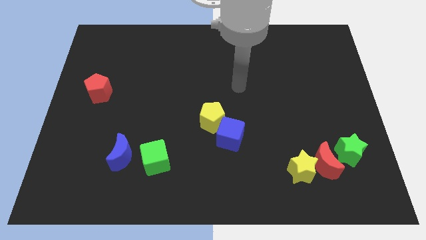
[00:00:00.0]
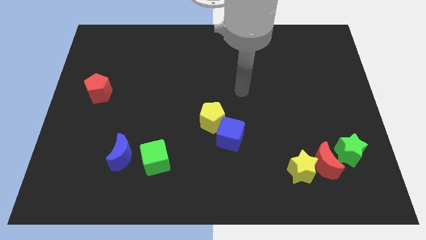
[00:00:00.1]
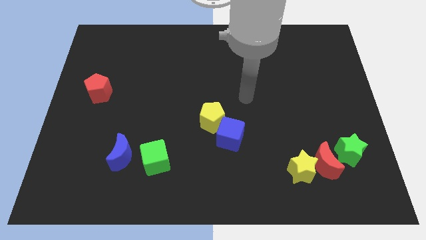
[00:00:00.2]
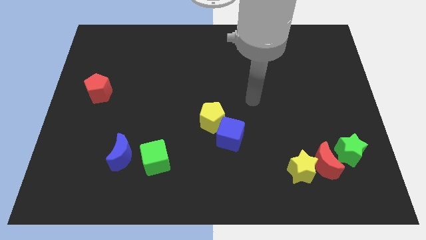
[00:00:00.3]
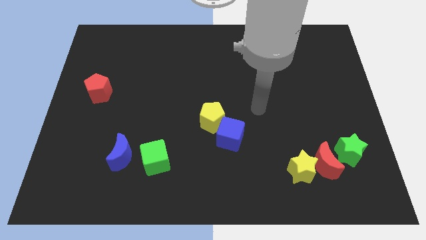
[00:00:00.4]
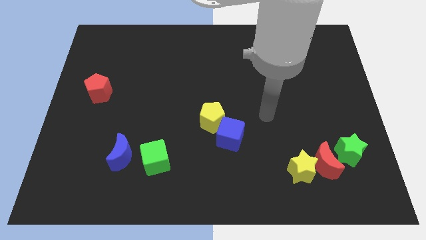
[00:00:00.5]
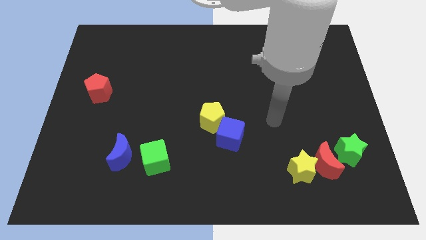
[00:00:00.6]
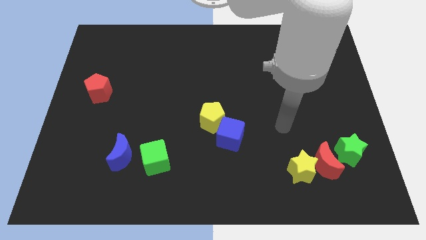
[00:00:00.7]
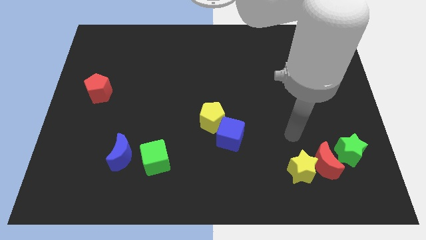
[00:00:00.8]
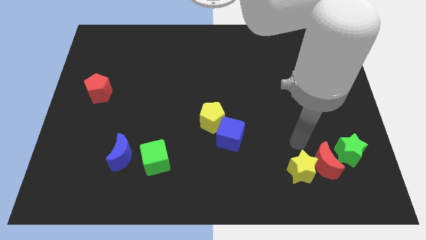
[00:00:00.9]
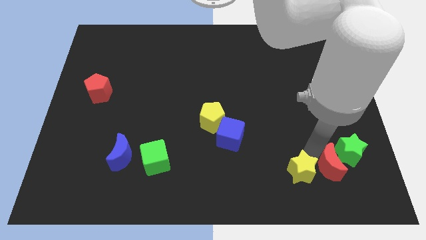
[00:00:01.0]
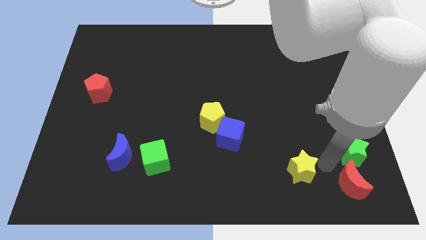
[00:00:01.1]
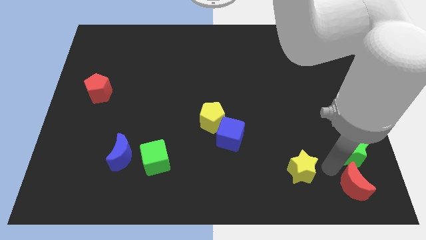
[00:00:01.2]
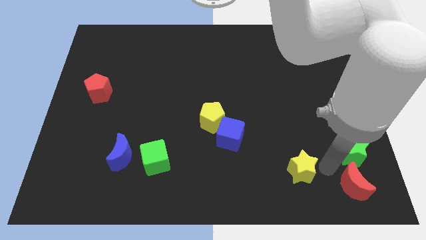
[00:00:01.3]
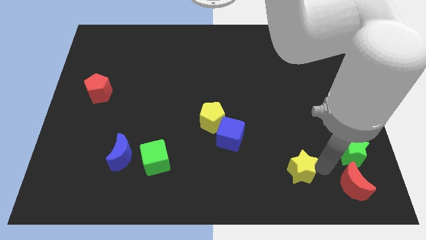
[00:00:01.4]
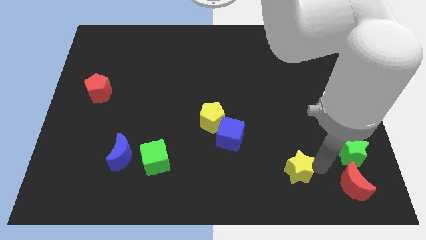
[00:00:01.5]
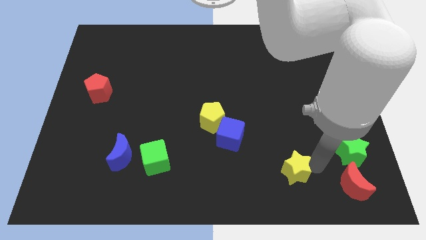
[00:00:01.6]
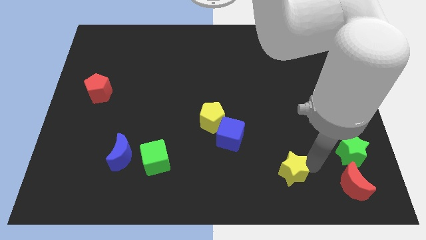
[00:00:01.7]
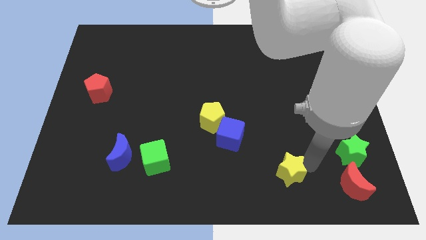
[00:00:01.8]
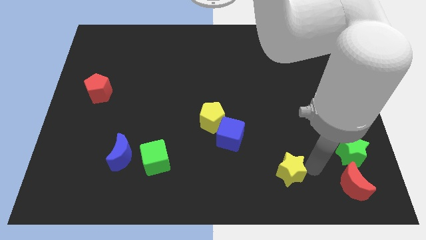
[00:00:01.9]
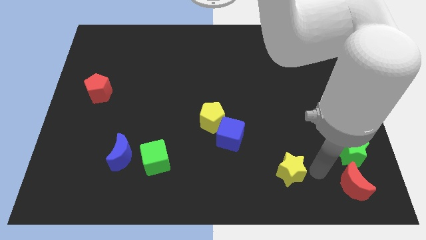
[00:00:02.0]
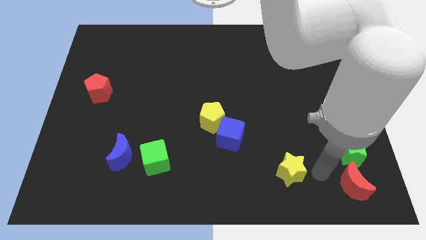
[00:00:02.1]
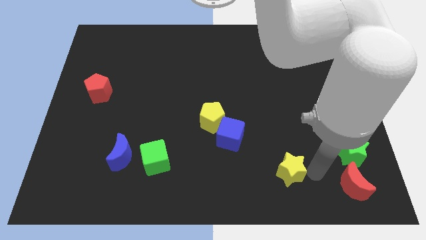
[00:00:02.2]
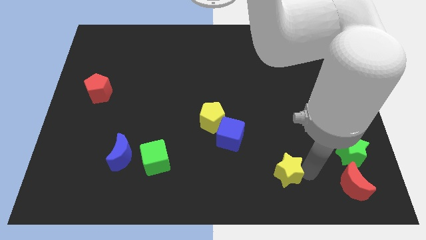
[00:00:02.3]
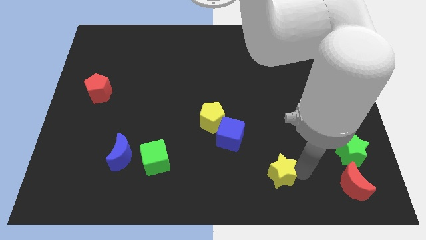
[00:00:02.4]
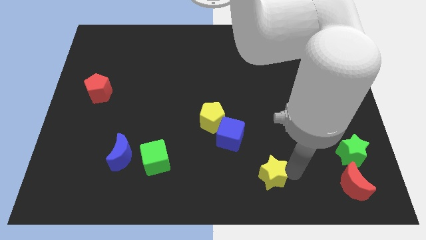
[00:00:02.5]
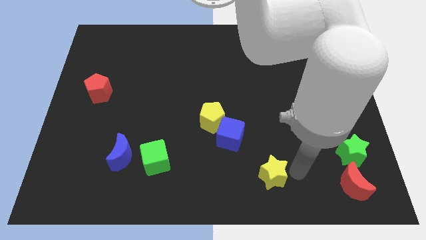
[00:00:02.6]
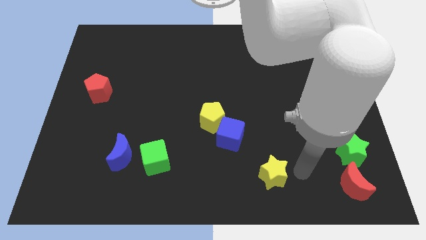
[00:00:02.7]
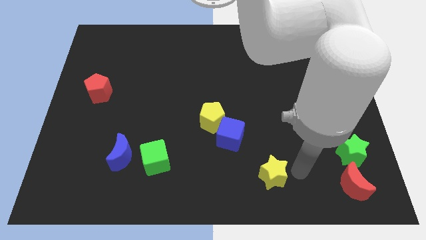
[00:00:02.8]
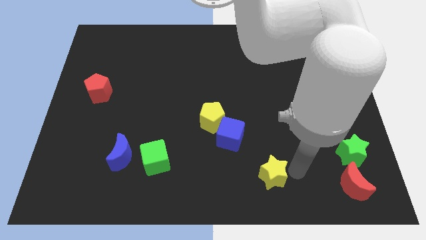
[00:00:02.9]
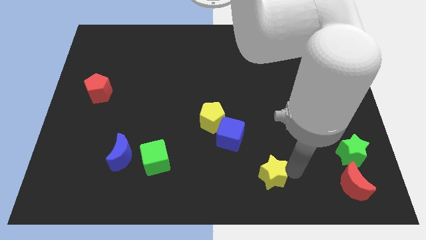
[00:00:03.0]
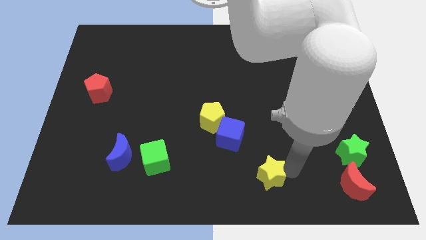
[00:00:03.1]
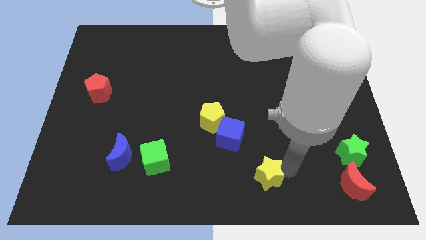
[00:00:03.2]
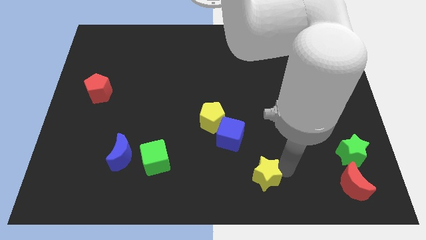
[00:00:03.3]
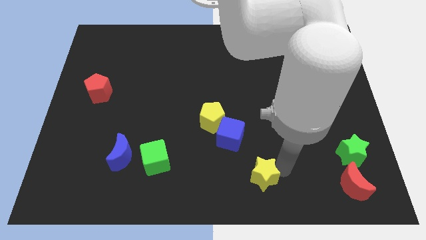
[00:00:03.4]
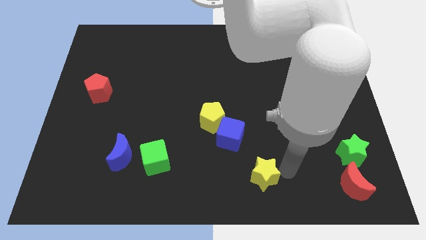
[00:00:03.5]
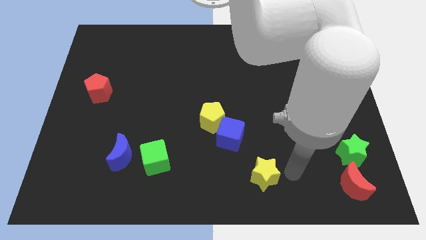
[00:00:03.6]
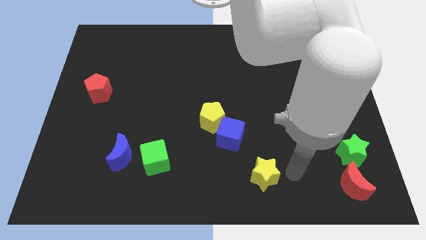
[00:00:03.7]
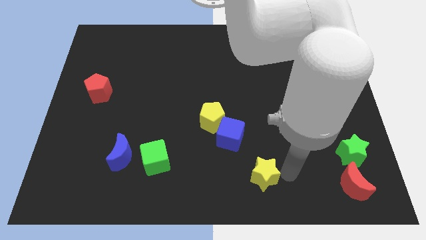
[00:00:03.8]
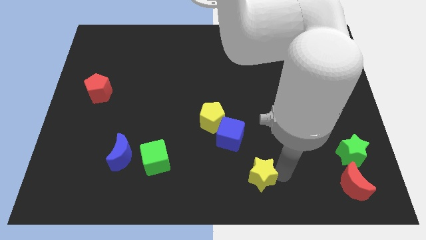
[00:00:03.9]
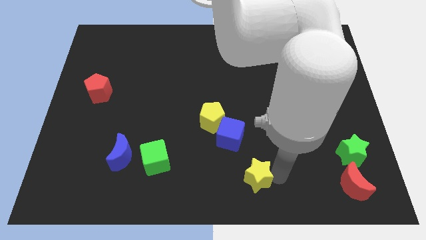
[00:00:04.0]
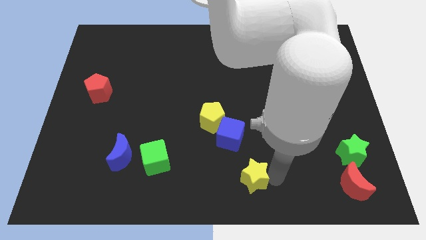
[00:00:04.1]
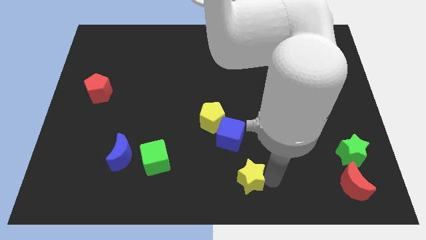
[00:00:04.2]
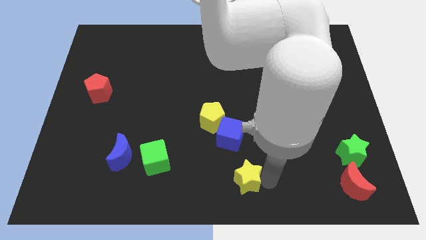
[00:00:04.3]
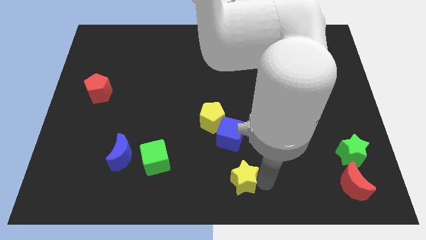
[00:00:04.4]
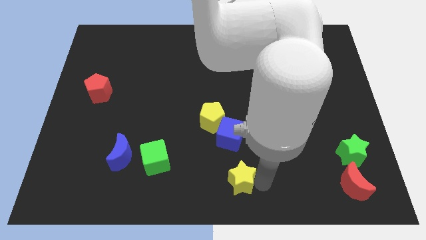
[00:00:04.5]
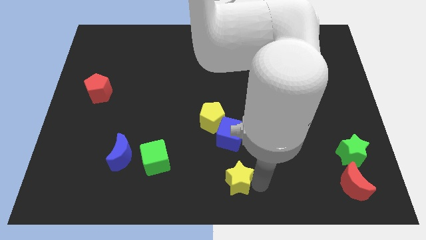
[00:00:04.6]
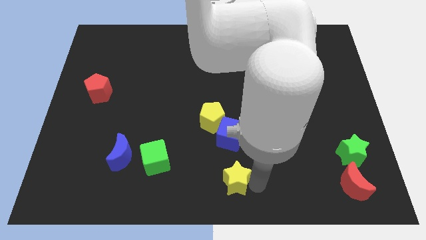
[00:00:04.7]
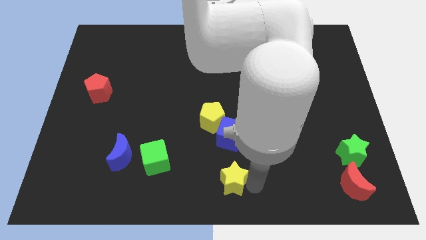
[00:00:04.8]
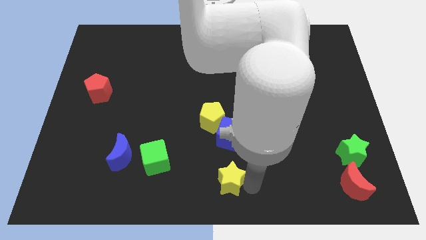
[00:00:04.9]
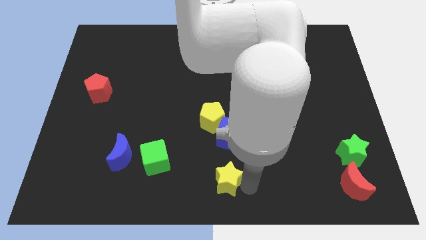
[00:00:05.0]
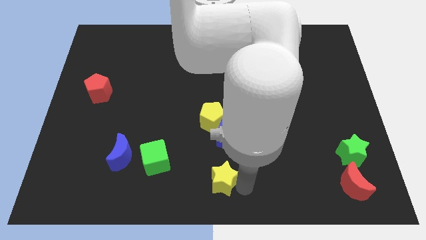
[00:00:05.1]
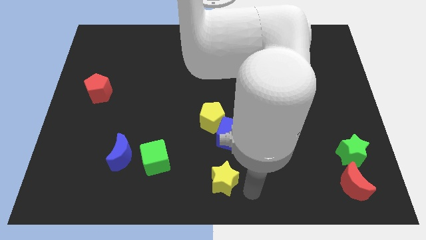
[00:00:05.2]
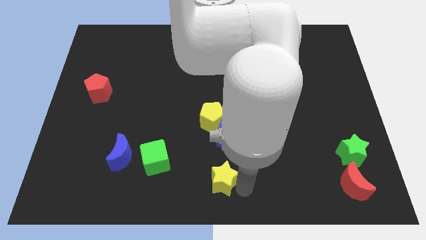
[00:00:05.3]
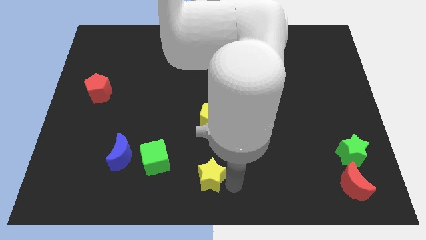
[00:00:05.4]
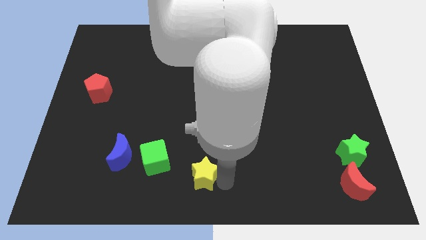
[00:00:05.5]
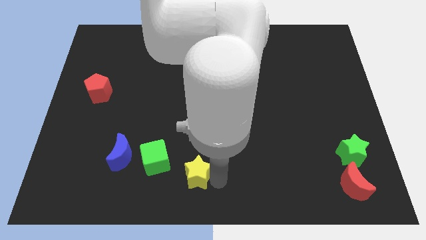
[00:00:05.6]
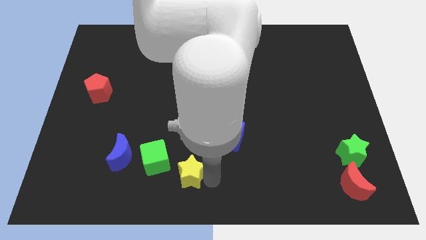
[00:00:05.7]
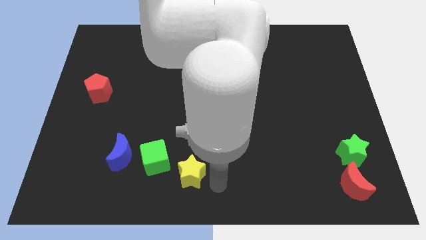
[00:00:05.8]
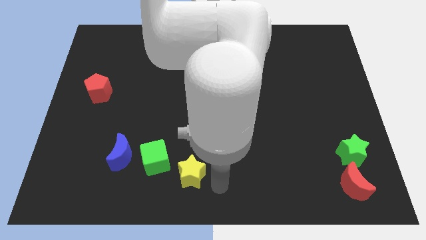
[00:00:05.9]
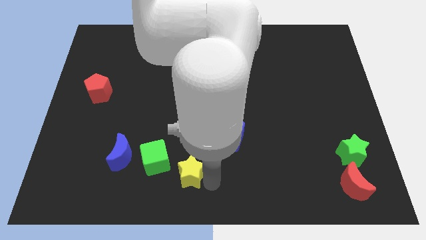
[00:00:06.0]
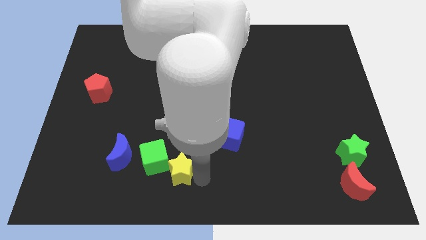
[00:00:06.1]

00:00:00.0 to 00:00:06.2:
slide the yellow star next to the green cube

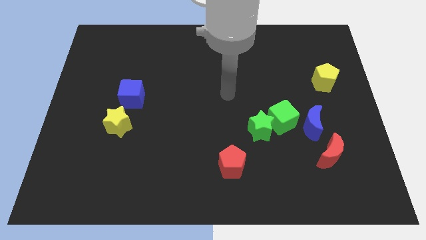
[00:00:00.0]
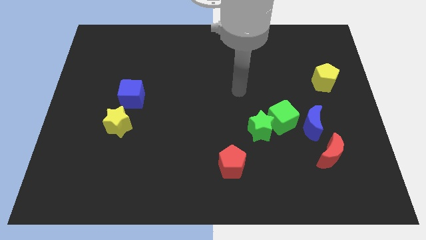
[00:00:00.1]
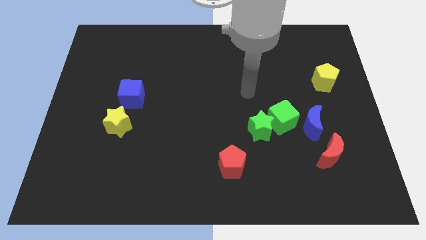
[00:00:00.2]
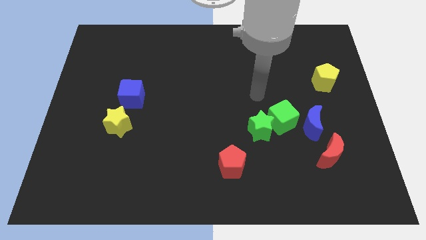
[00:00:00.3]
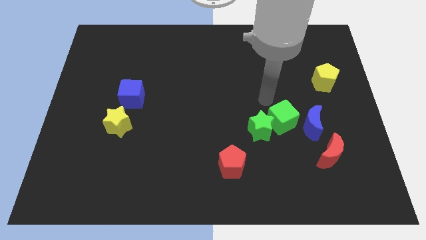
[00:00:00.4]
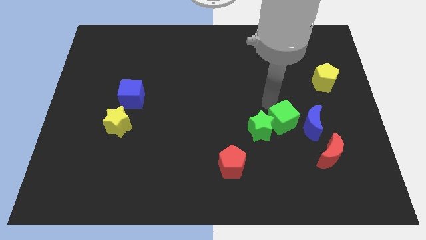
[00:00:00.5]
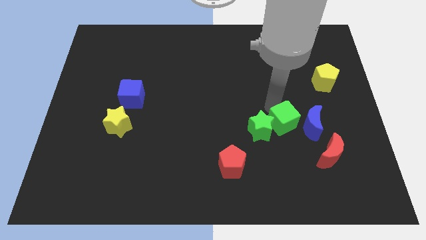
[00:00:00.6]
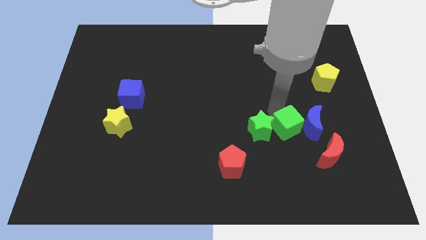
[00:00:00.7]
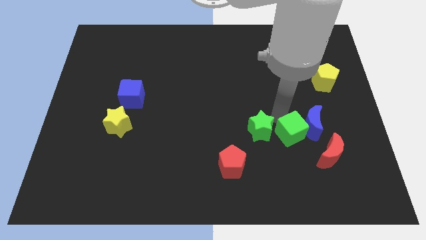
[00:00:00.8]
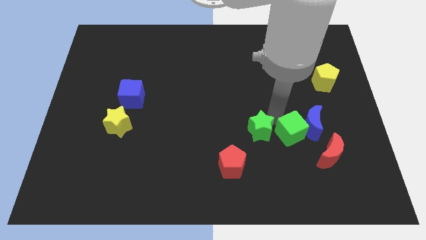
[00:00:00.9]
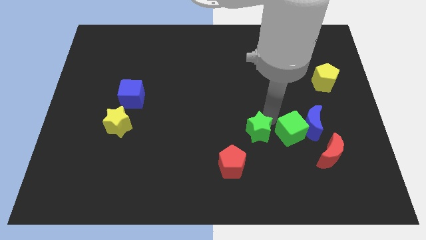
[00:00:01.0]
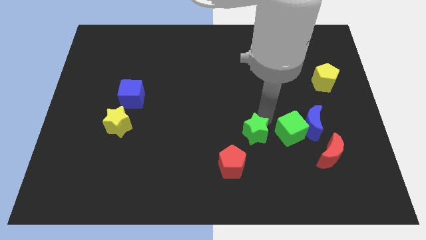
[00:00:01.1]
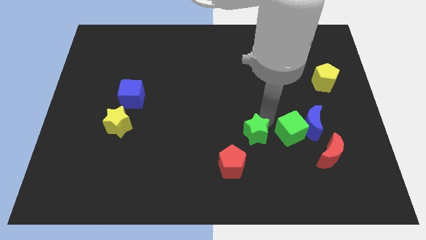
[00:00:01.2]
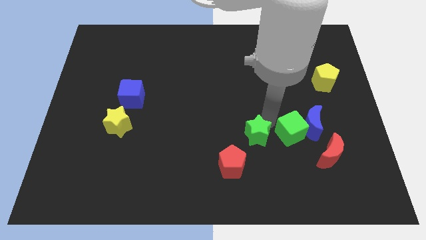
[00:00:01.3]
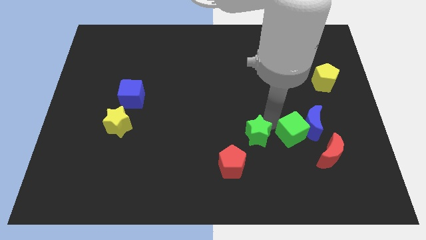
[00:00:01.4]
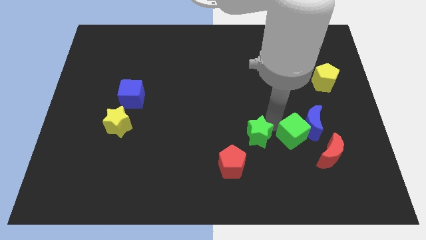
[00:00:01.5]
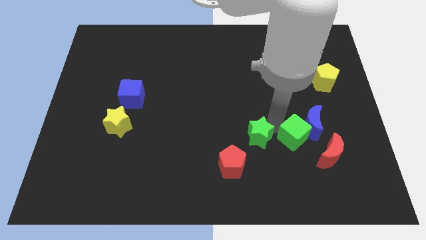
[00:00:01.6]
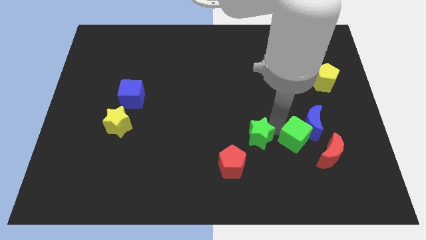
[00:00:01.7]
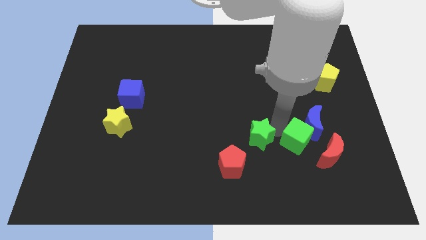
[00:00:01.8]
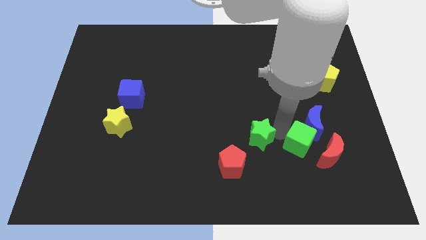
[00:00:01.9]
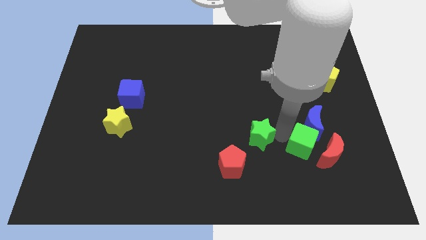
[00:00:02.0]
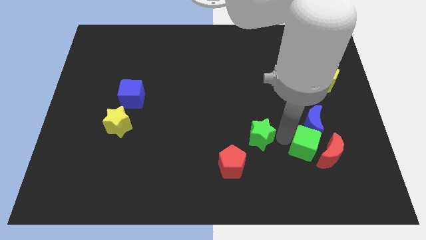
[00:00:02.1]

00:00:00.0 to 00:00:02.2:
push the green cube next to the red moon

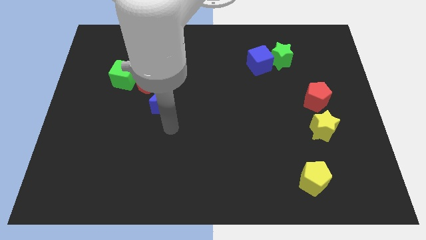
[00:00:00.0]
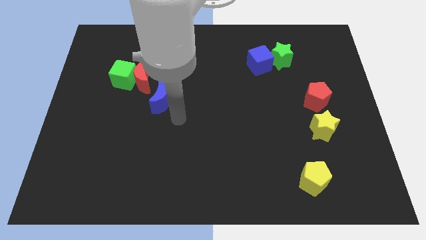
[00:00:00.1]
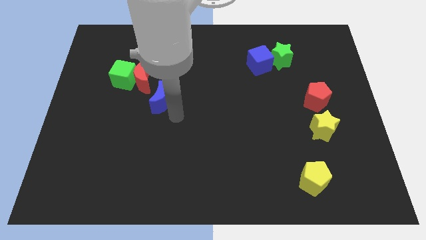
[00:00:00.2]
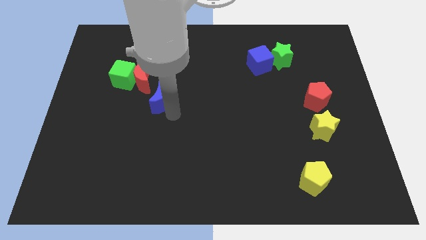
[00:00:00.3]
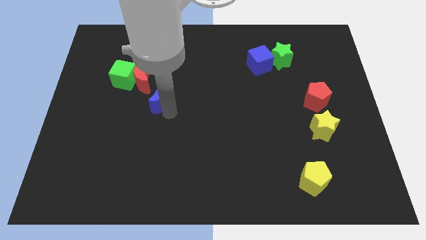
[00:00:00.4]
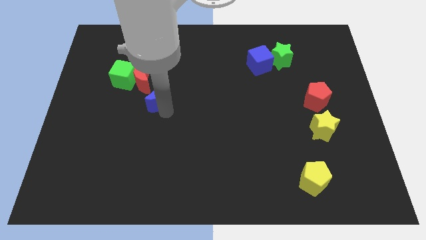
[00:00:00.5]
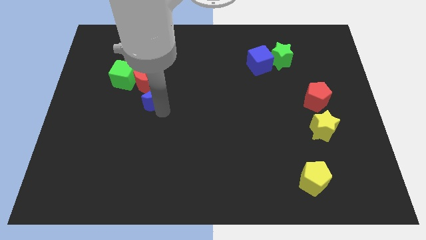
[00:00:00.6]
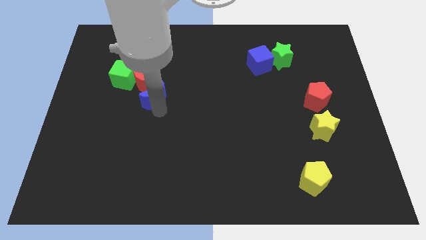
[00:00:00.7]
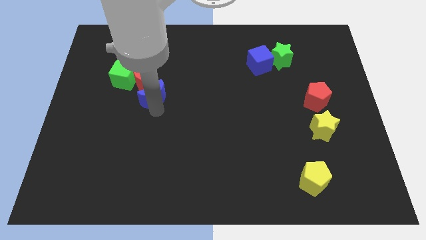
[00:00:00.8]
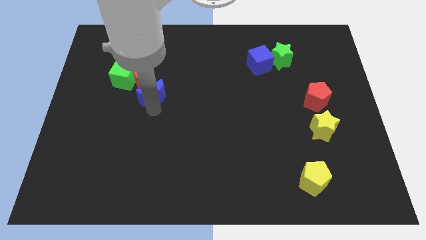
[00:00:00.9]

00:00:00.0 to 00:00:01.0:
put the blue moon next to the red moon
